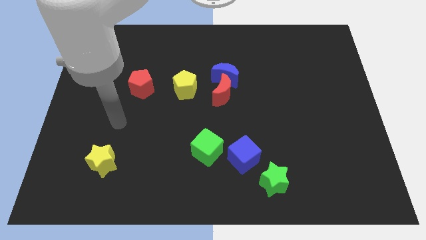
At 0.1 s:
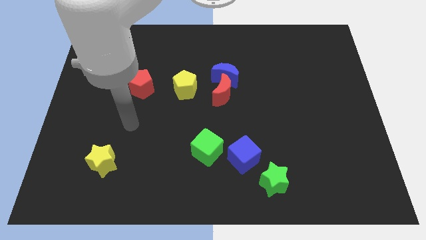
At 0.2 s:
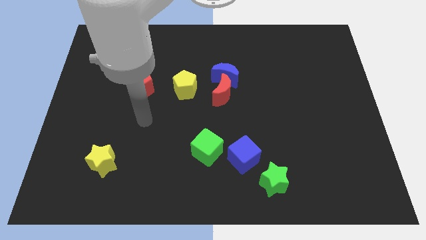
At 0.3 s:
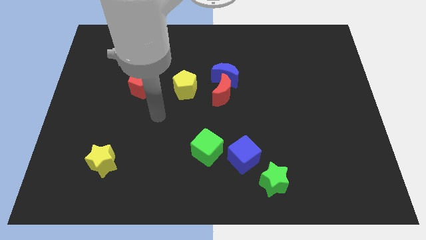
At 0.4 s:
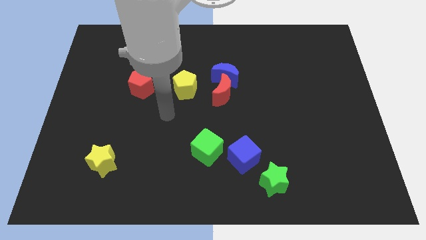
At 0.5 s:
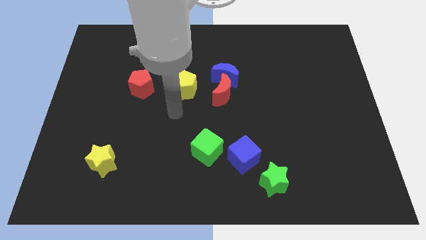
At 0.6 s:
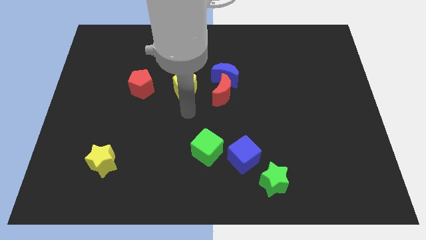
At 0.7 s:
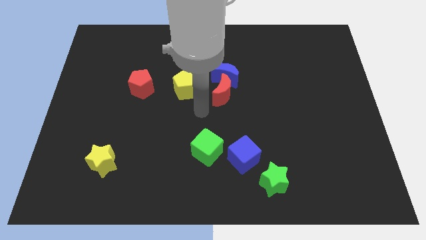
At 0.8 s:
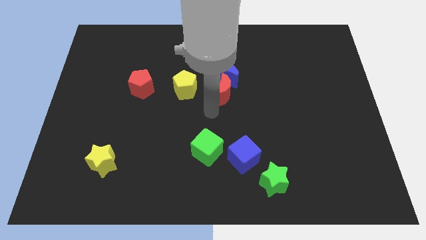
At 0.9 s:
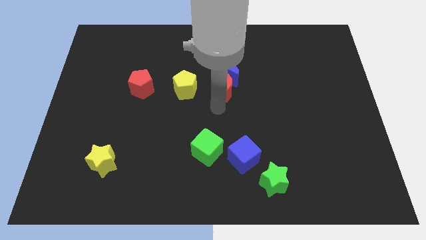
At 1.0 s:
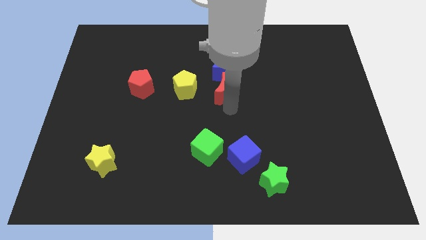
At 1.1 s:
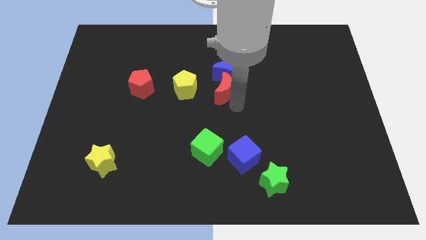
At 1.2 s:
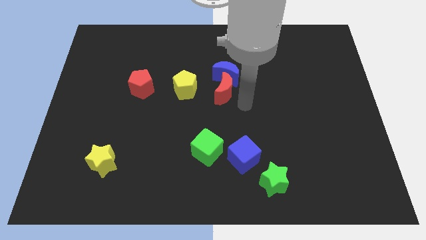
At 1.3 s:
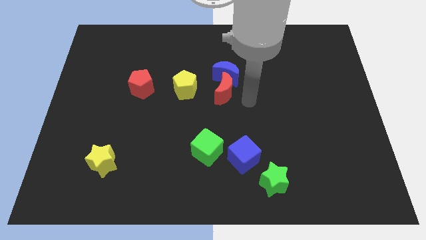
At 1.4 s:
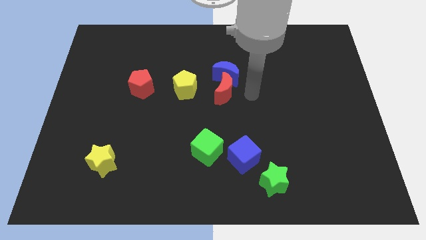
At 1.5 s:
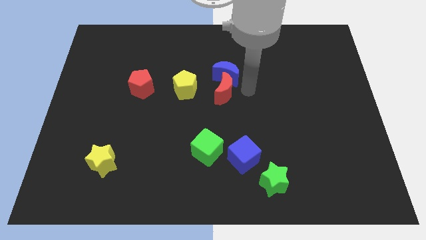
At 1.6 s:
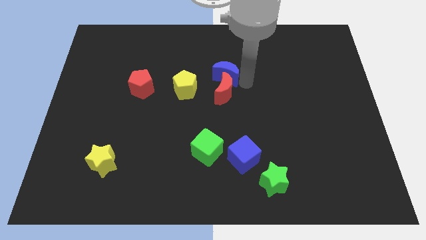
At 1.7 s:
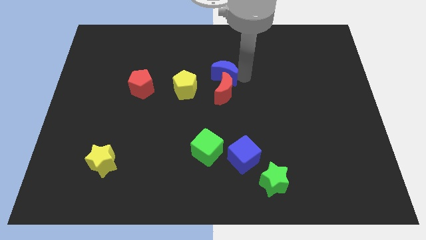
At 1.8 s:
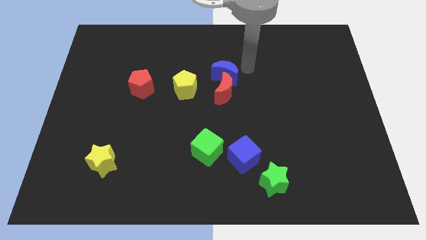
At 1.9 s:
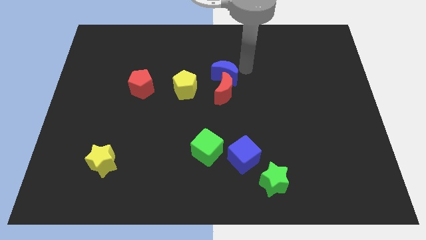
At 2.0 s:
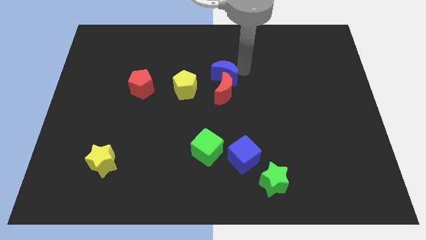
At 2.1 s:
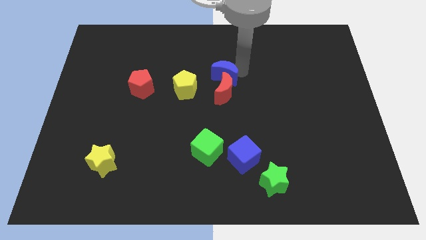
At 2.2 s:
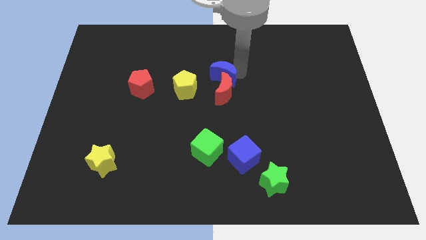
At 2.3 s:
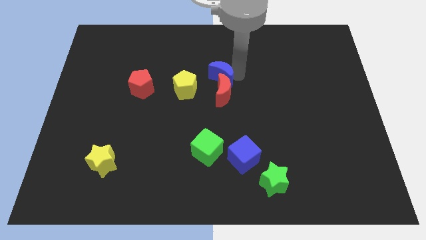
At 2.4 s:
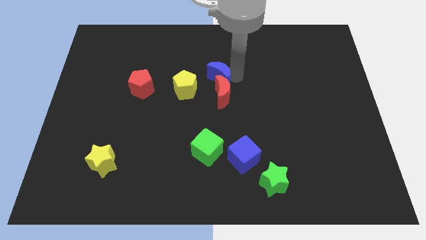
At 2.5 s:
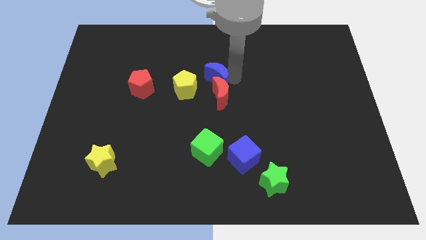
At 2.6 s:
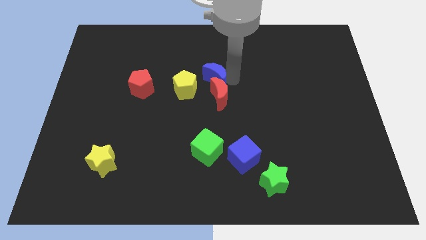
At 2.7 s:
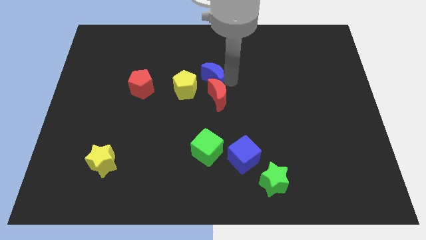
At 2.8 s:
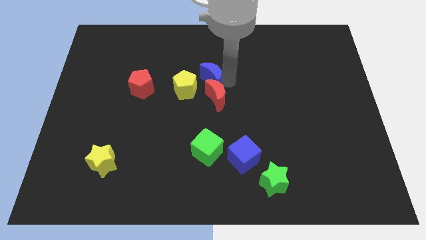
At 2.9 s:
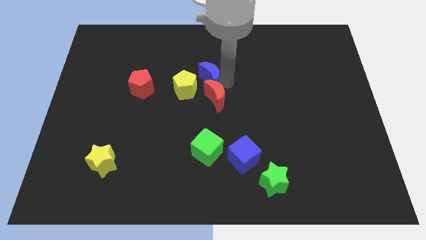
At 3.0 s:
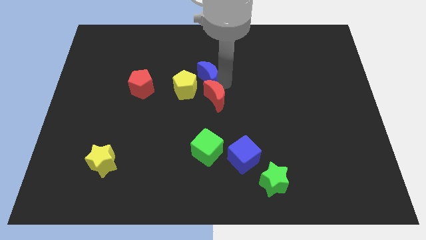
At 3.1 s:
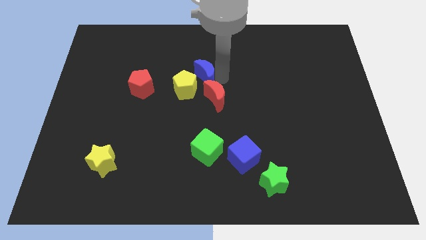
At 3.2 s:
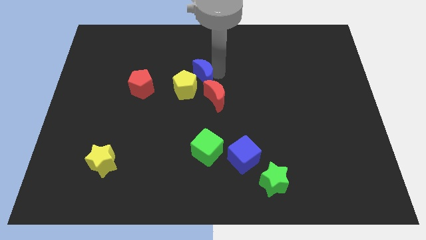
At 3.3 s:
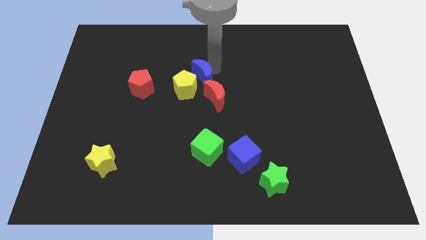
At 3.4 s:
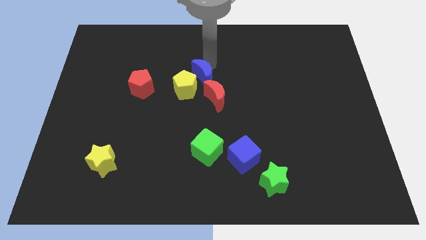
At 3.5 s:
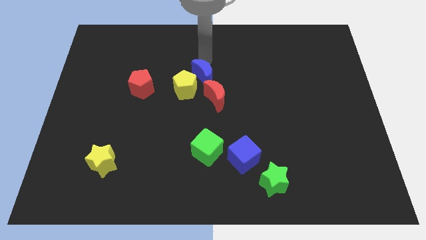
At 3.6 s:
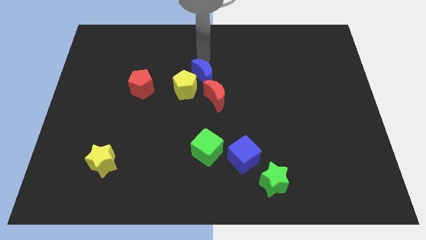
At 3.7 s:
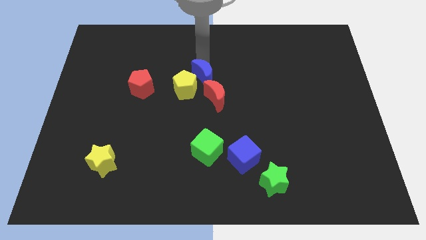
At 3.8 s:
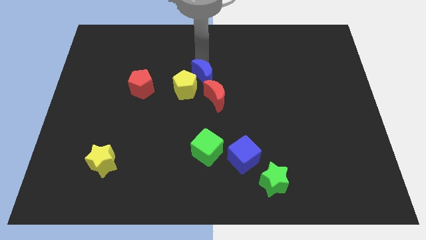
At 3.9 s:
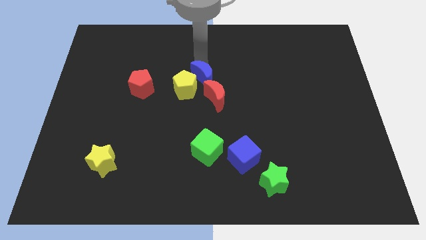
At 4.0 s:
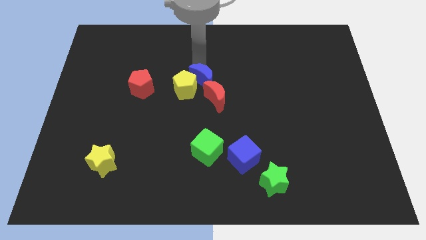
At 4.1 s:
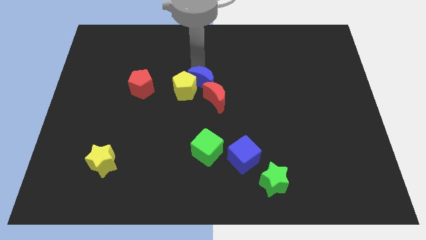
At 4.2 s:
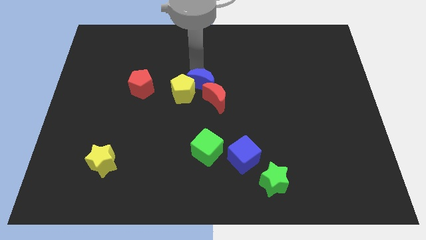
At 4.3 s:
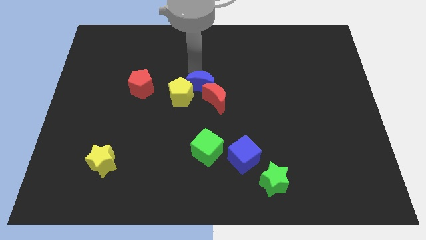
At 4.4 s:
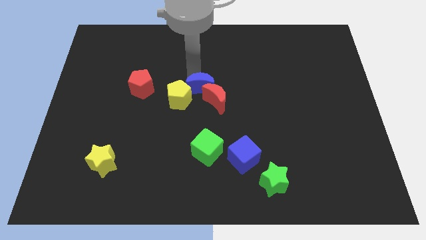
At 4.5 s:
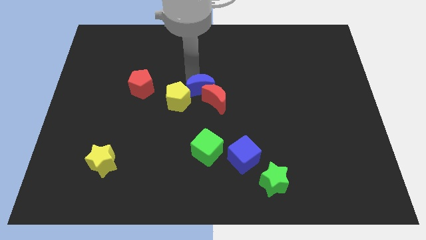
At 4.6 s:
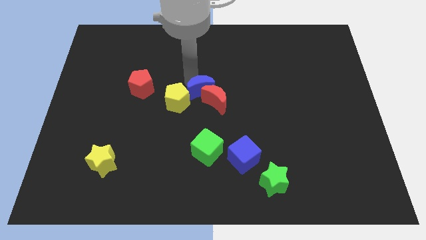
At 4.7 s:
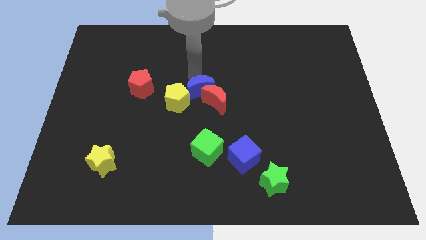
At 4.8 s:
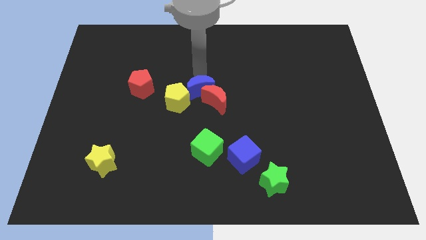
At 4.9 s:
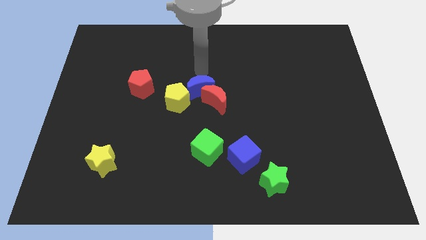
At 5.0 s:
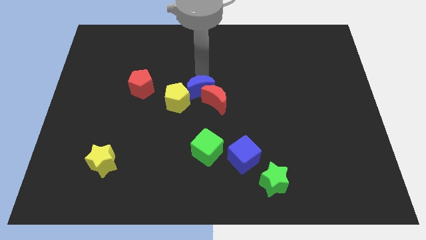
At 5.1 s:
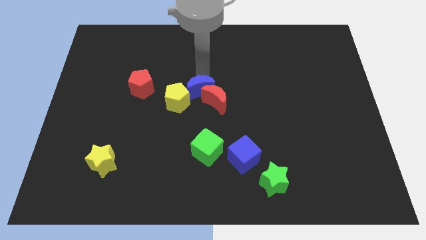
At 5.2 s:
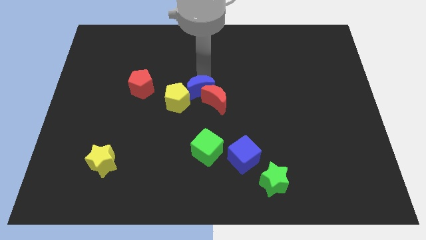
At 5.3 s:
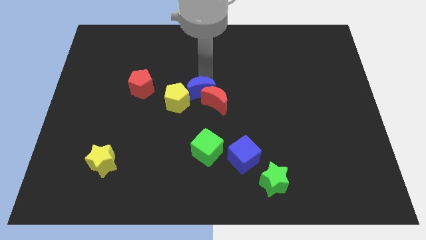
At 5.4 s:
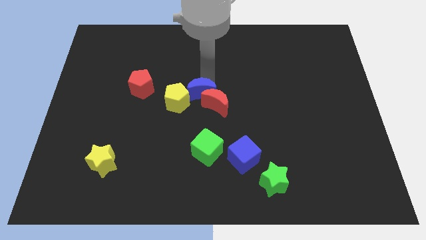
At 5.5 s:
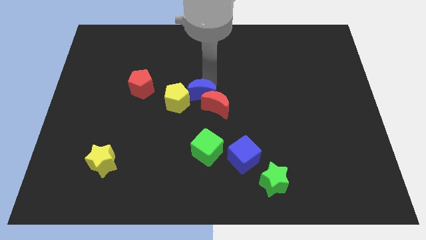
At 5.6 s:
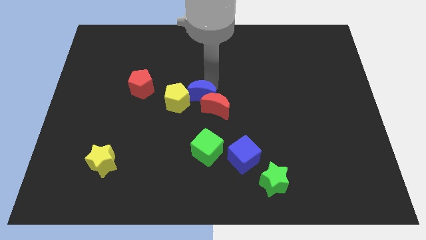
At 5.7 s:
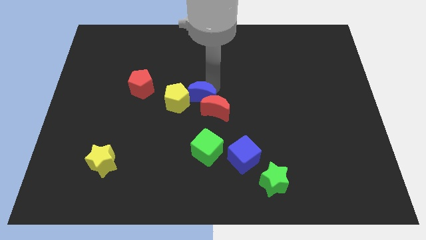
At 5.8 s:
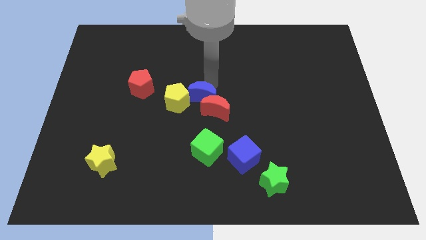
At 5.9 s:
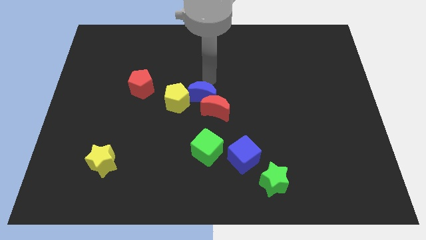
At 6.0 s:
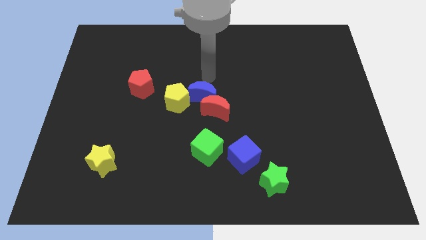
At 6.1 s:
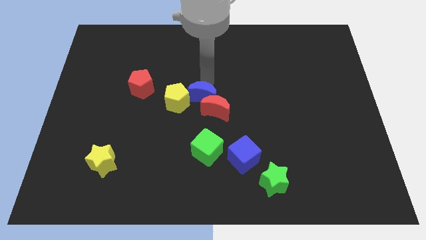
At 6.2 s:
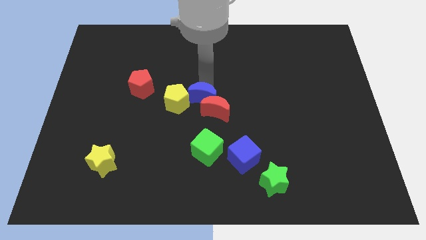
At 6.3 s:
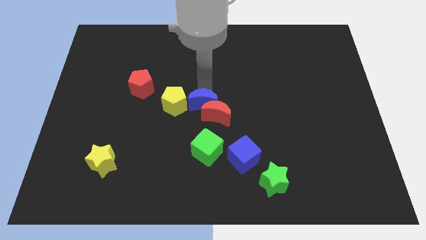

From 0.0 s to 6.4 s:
move the blue moon diagonally down and to the right of the yellow pentagon
